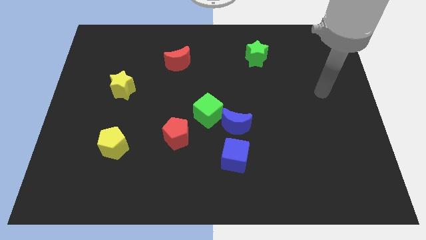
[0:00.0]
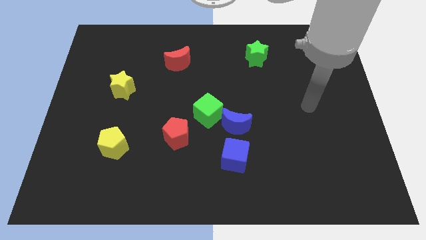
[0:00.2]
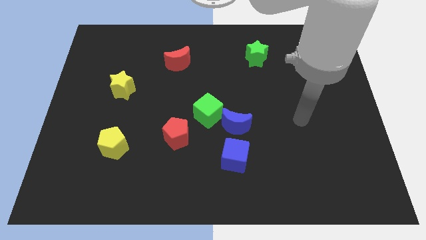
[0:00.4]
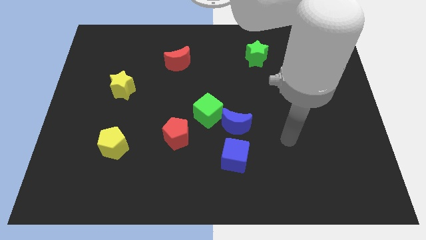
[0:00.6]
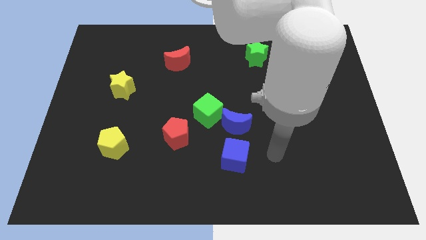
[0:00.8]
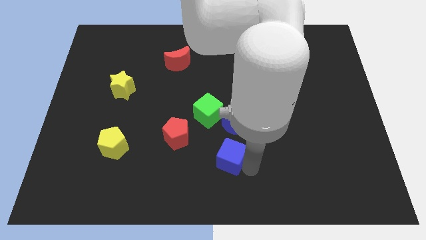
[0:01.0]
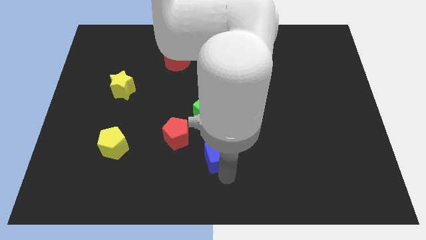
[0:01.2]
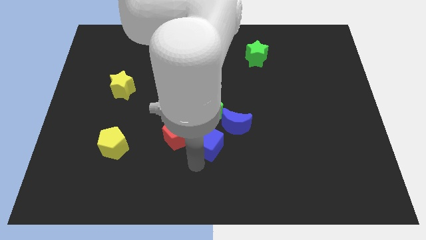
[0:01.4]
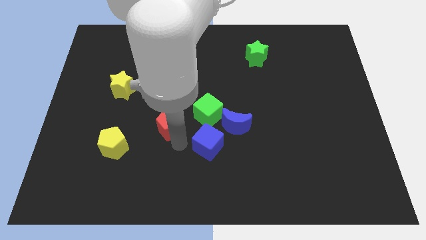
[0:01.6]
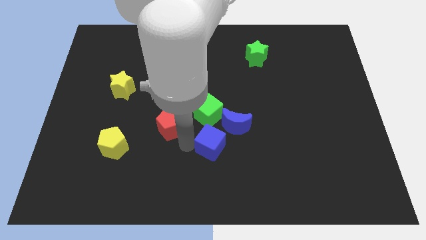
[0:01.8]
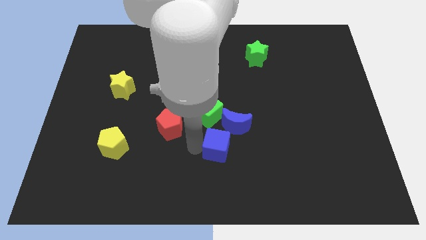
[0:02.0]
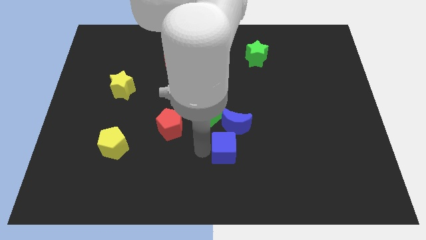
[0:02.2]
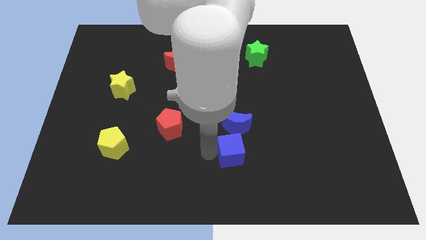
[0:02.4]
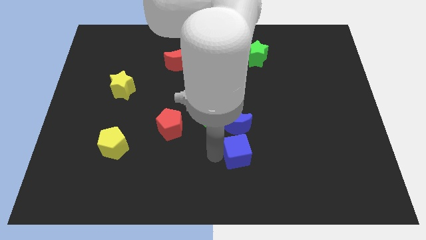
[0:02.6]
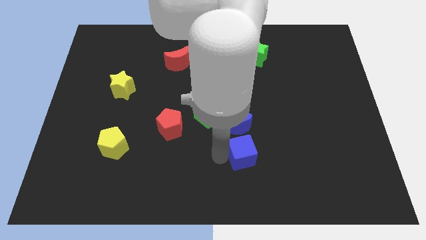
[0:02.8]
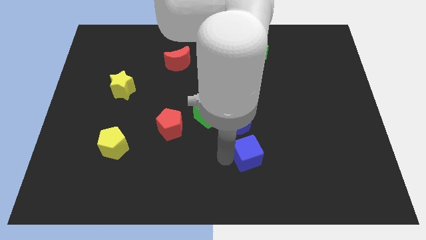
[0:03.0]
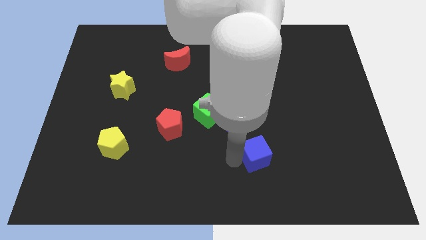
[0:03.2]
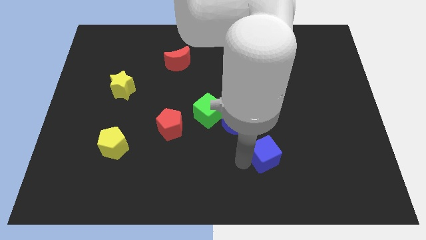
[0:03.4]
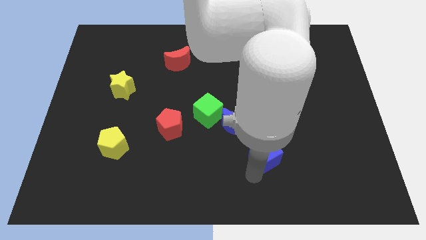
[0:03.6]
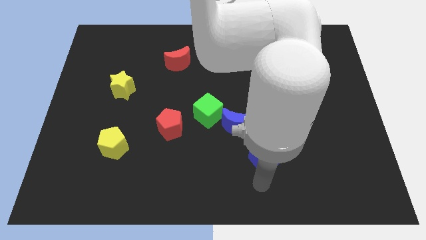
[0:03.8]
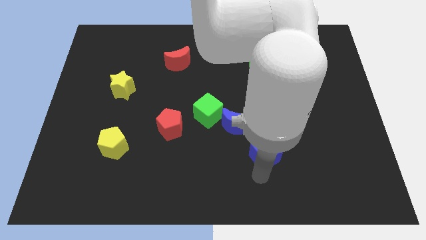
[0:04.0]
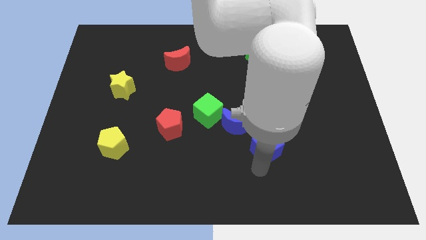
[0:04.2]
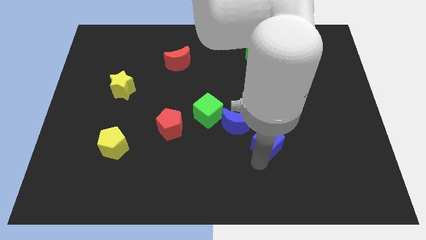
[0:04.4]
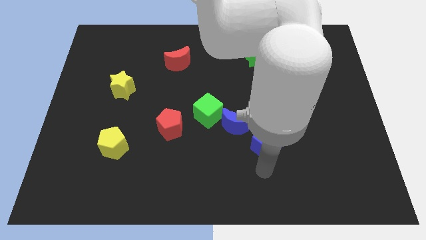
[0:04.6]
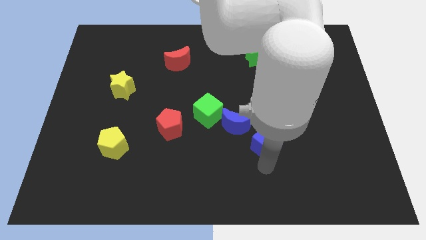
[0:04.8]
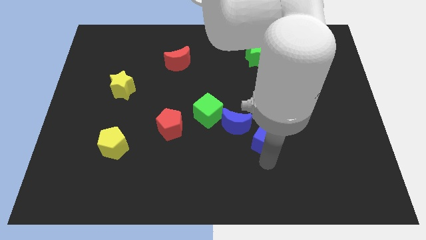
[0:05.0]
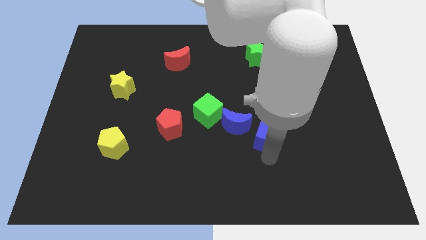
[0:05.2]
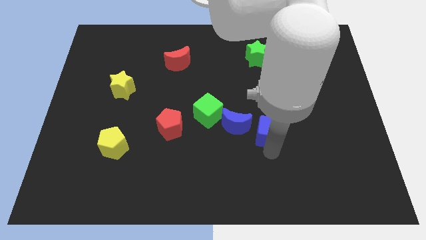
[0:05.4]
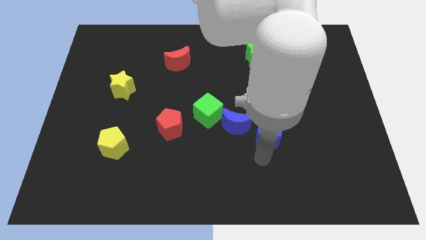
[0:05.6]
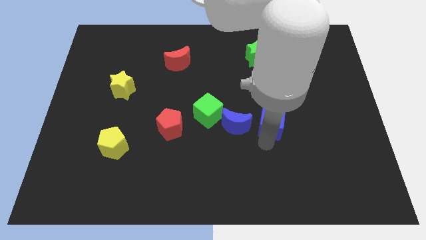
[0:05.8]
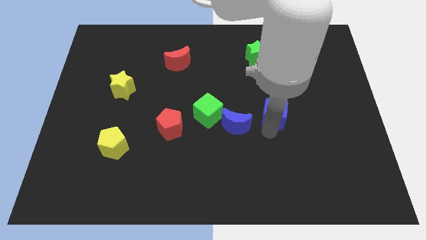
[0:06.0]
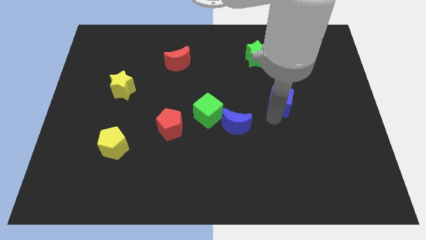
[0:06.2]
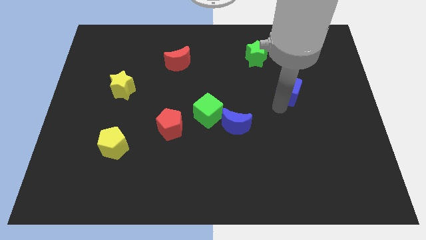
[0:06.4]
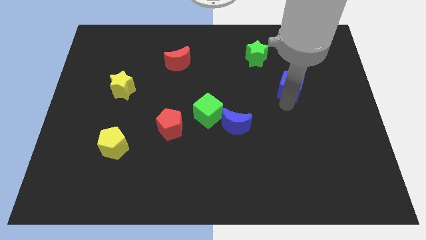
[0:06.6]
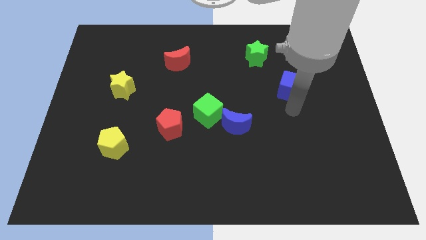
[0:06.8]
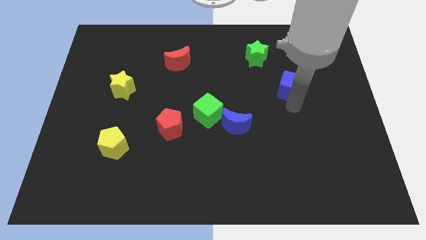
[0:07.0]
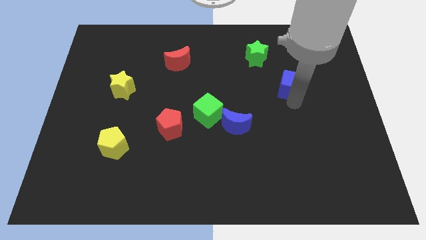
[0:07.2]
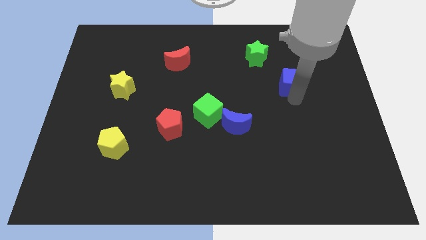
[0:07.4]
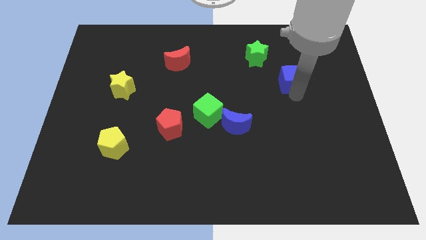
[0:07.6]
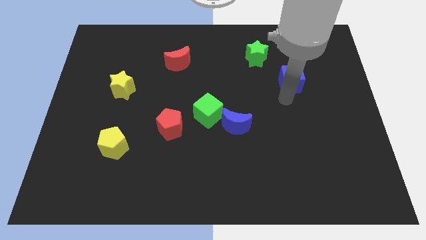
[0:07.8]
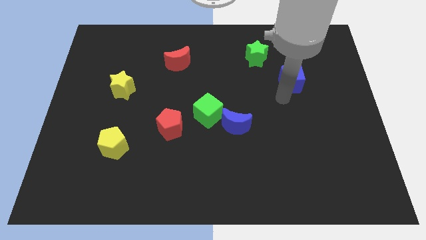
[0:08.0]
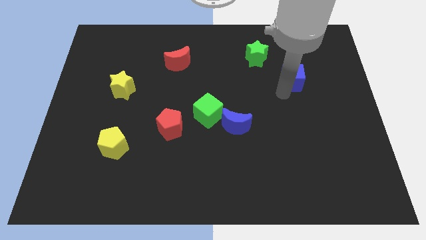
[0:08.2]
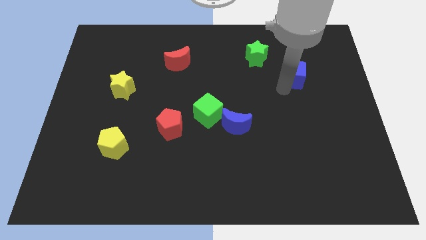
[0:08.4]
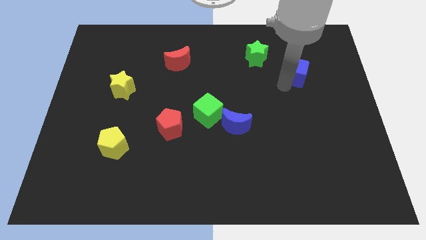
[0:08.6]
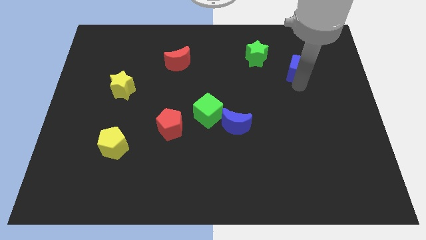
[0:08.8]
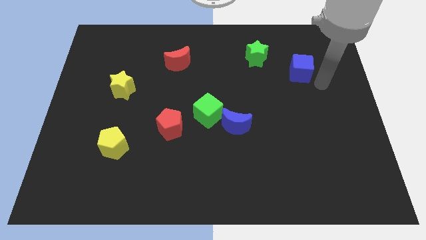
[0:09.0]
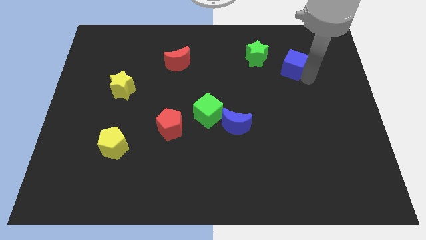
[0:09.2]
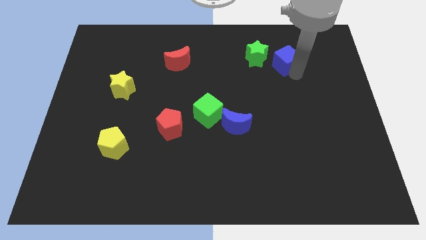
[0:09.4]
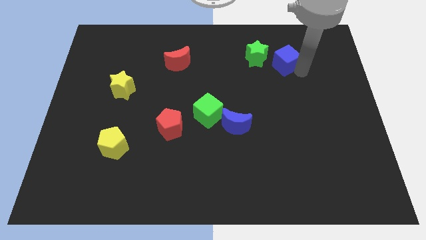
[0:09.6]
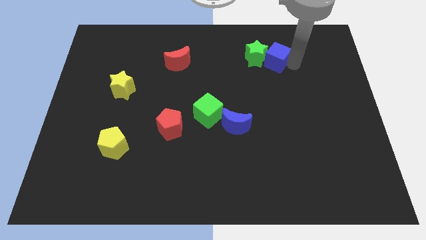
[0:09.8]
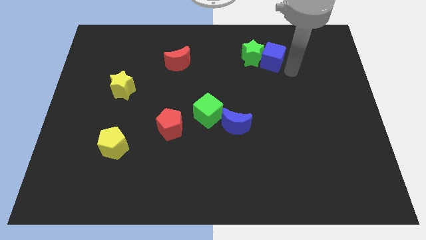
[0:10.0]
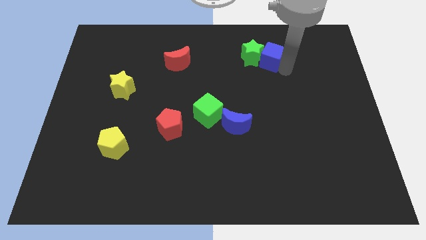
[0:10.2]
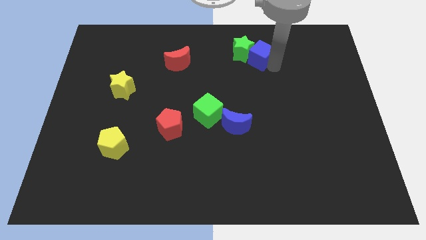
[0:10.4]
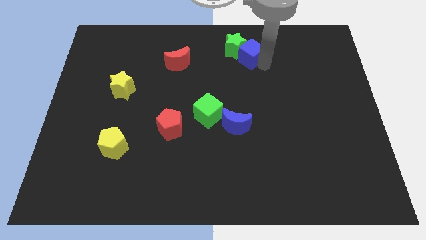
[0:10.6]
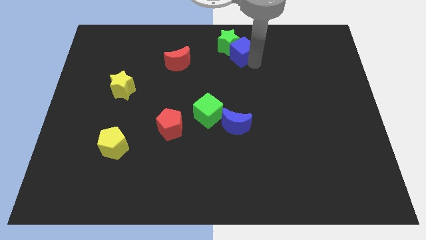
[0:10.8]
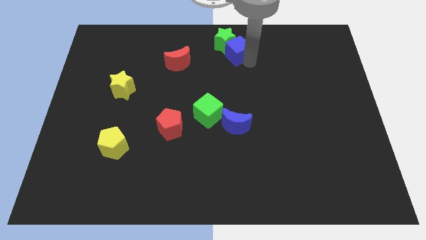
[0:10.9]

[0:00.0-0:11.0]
put the blue cube to the top
